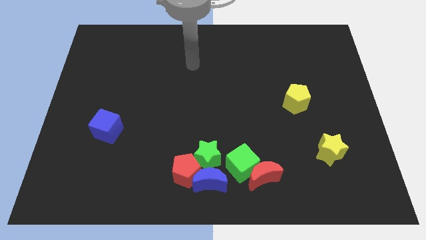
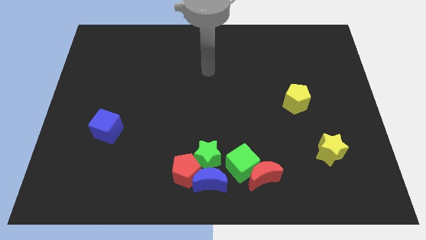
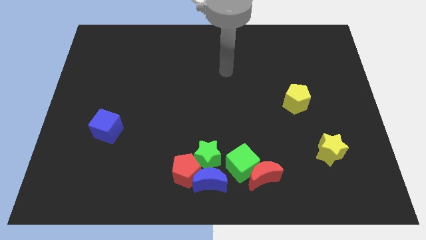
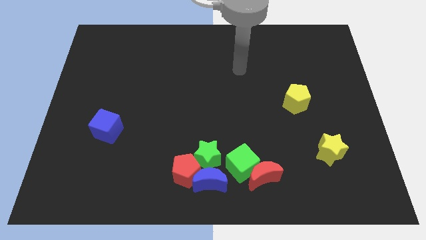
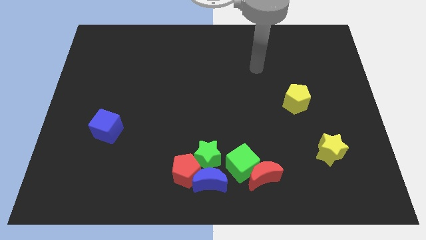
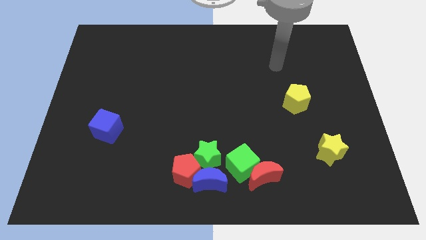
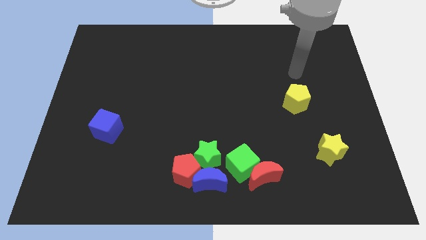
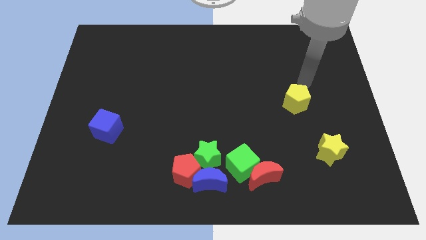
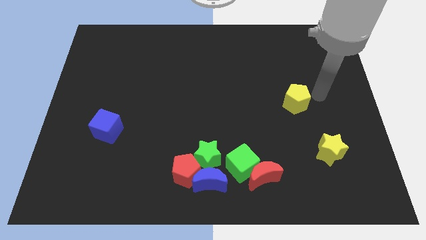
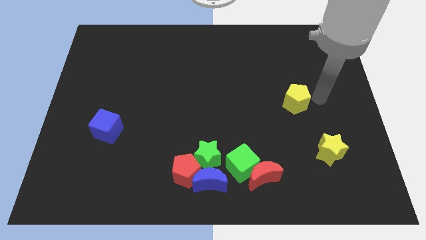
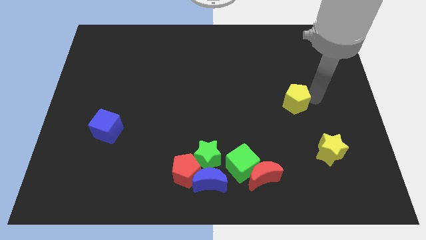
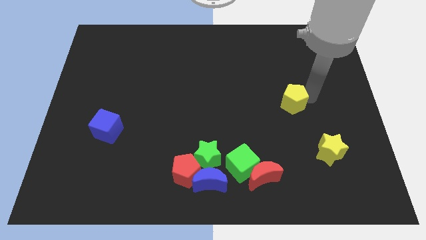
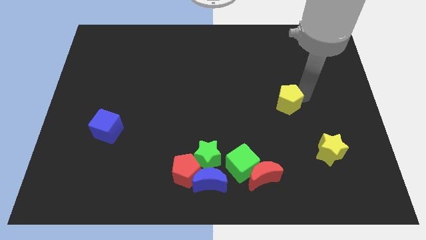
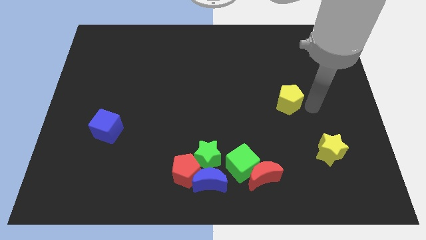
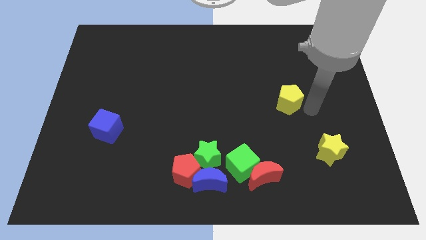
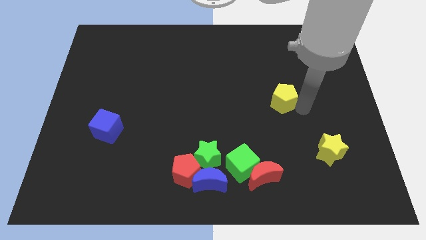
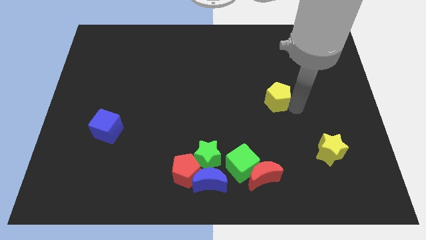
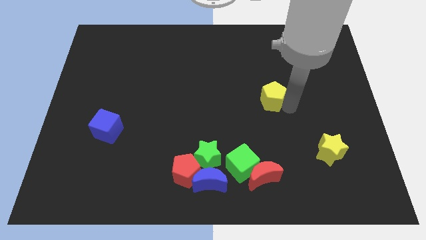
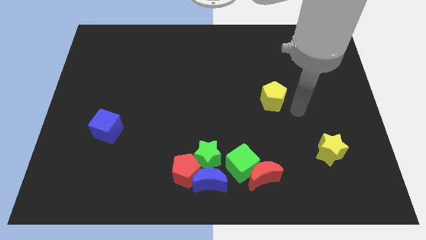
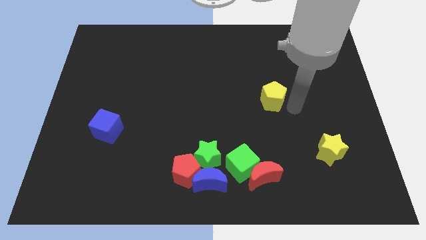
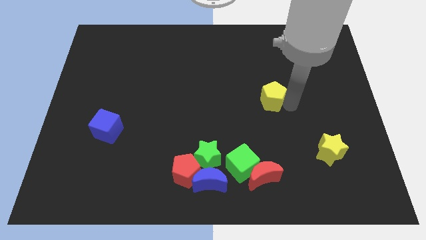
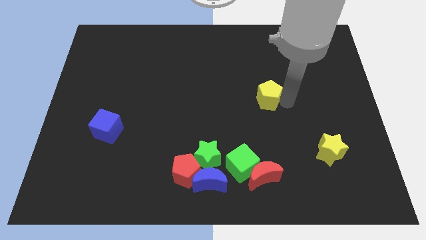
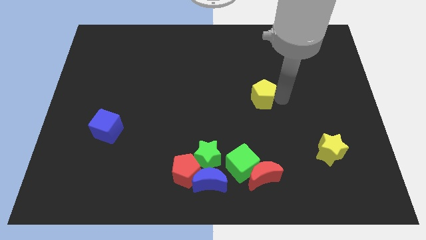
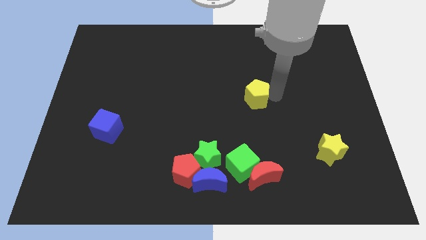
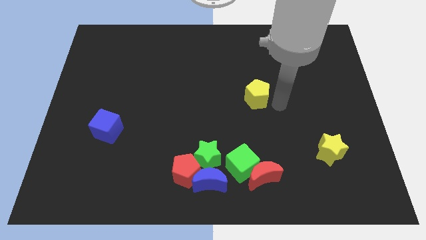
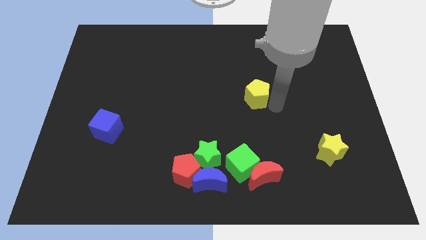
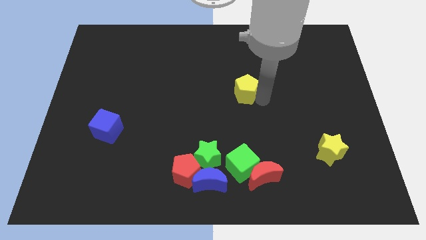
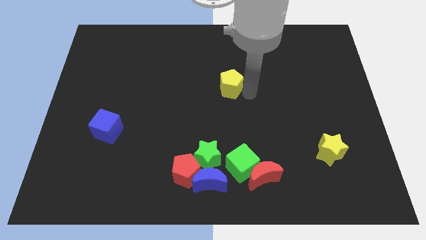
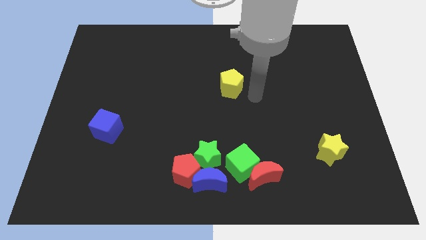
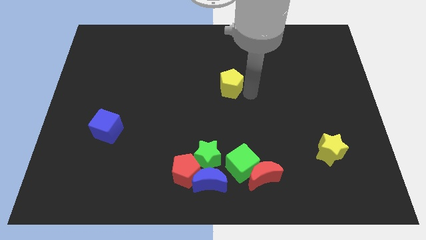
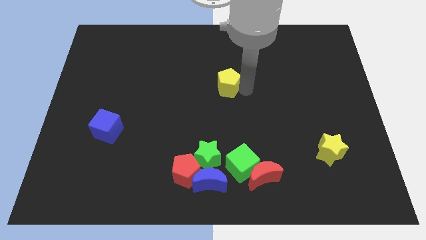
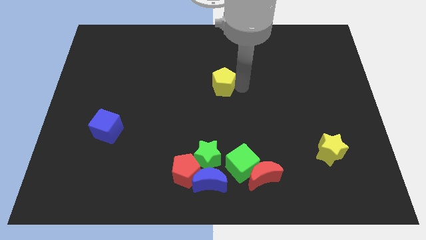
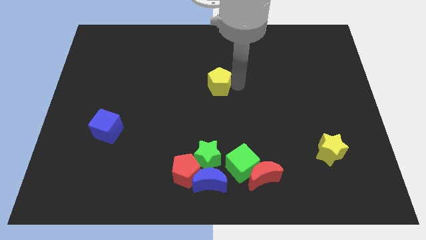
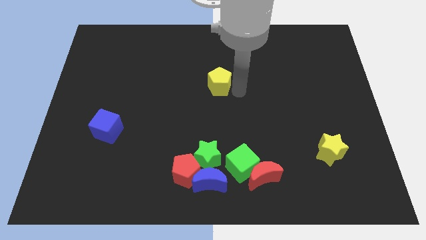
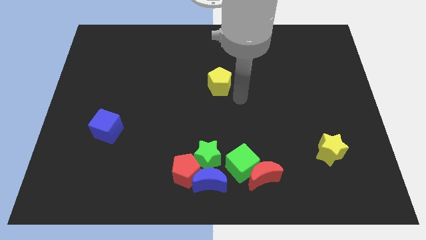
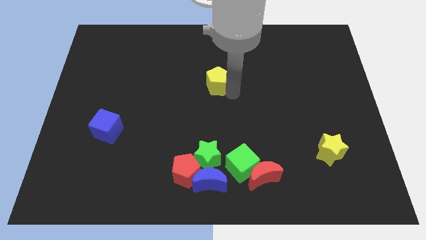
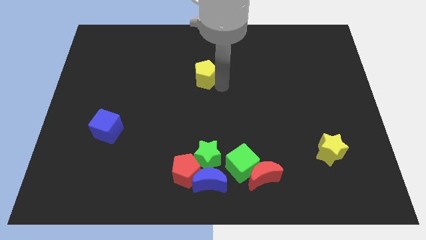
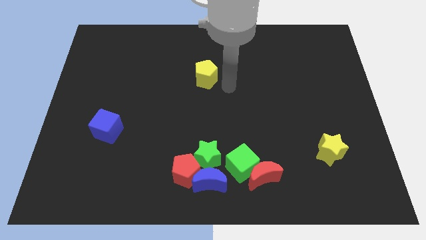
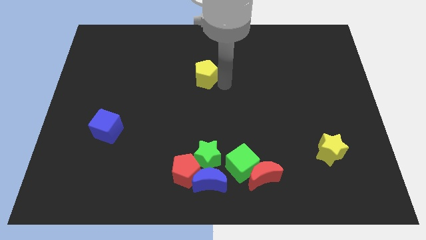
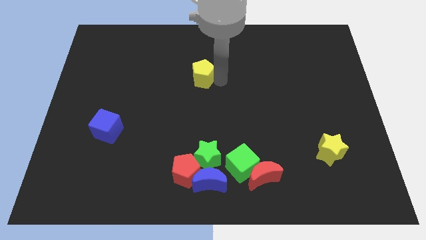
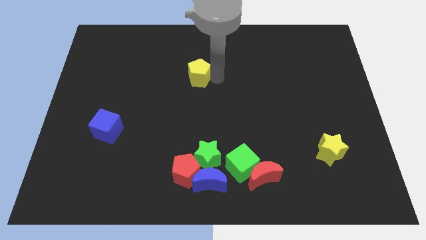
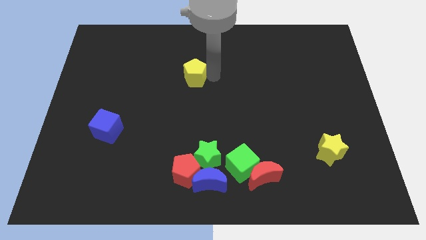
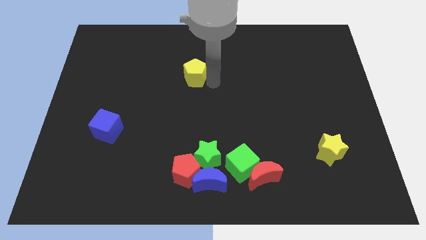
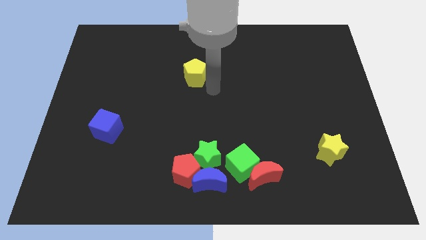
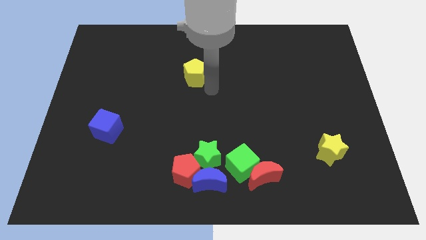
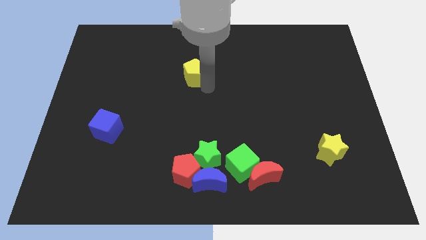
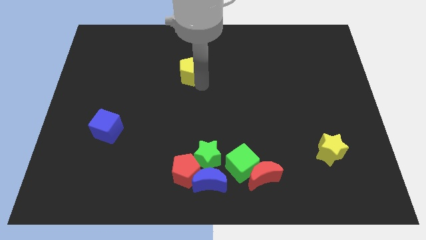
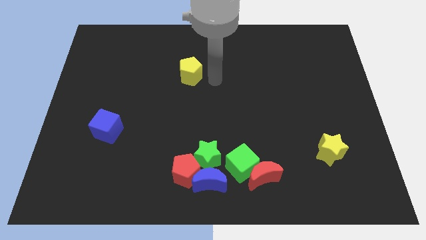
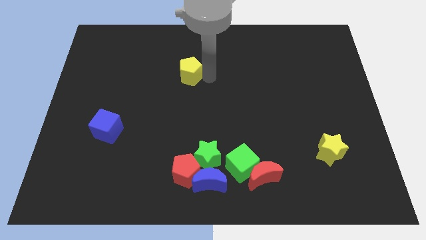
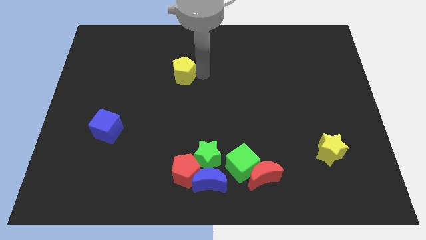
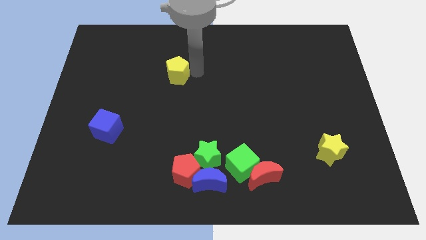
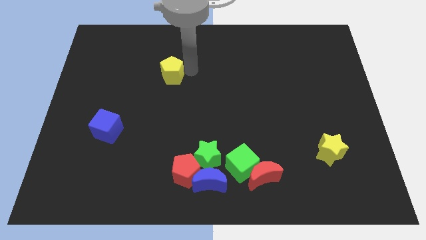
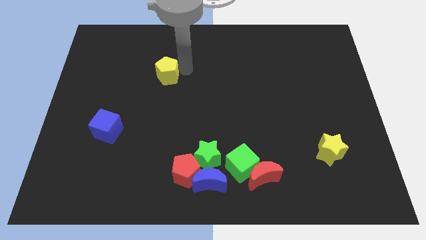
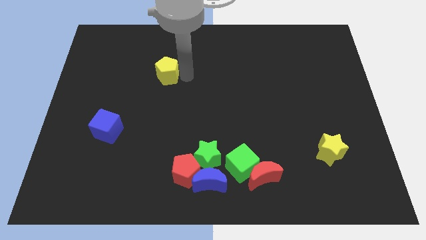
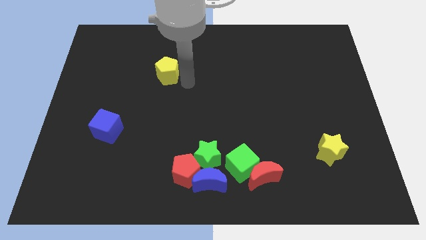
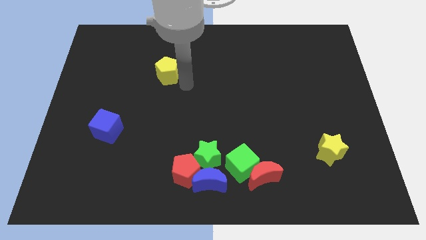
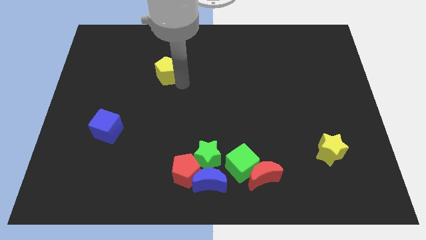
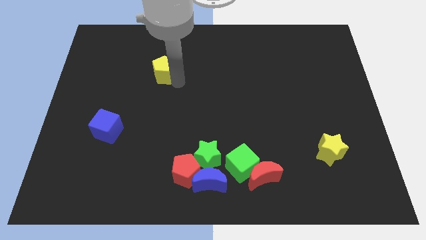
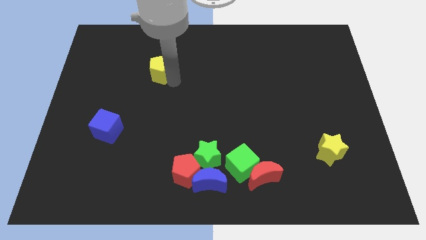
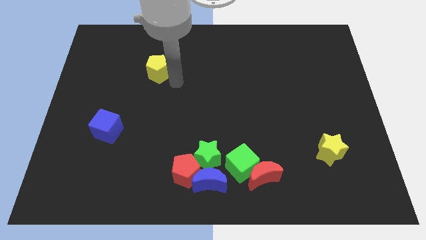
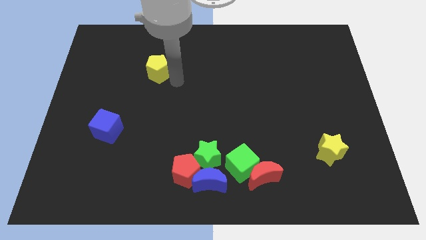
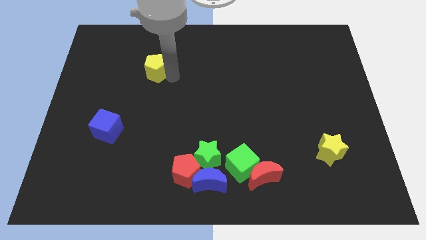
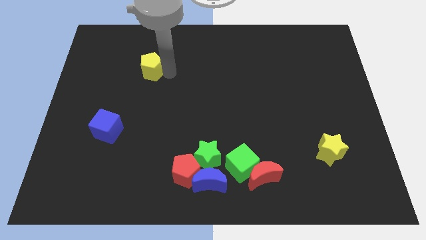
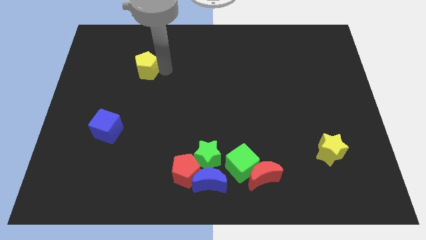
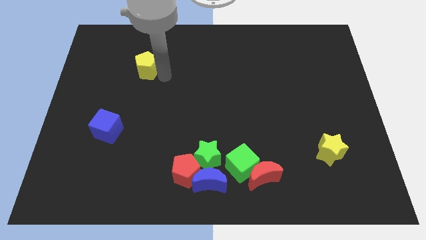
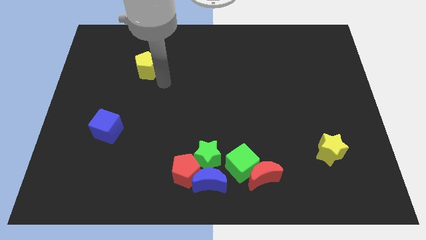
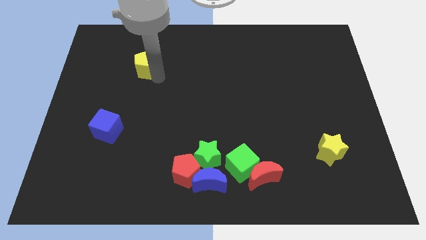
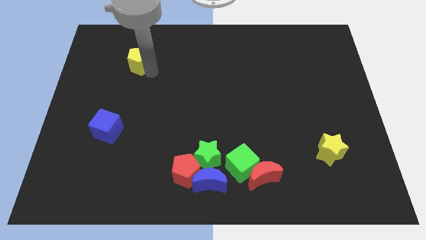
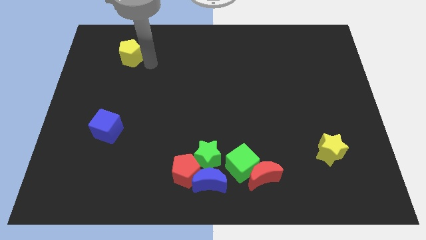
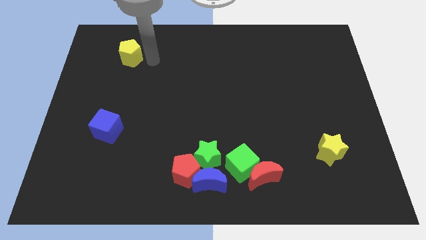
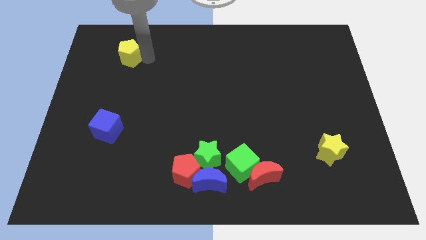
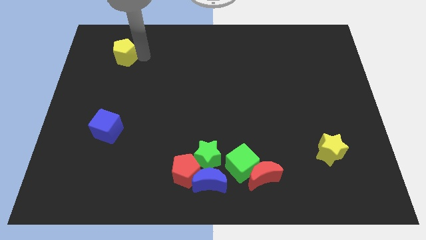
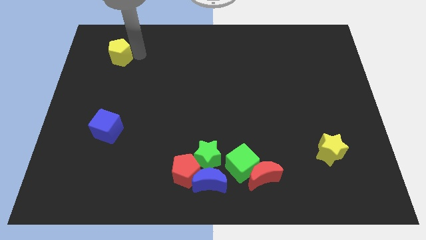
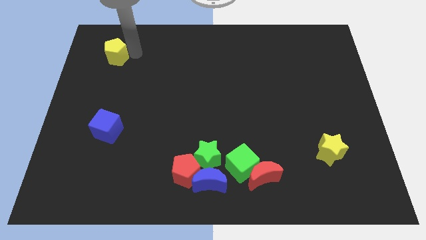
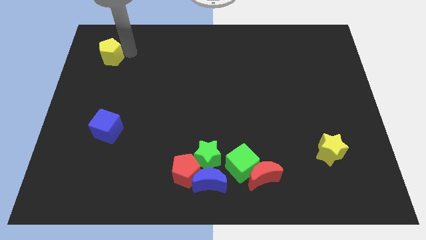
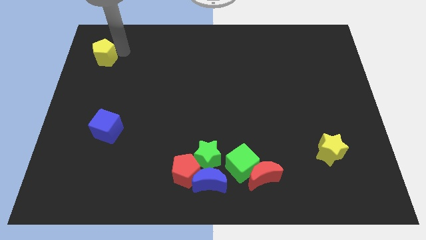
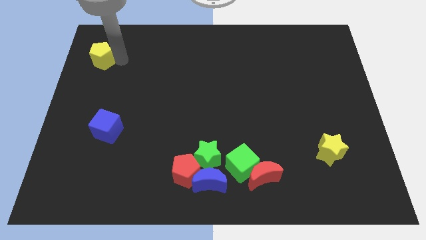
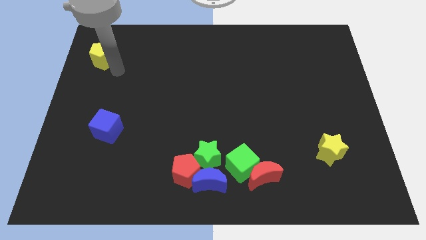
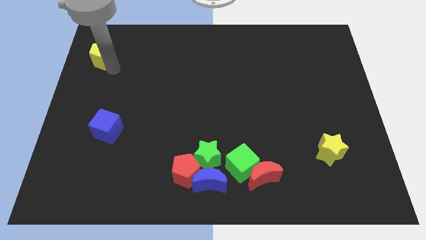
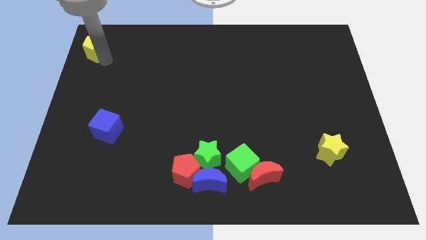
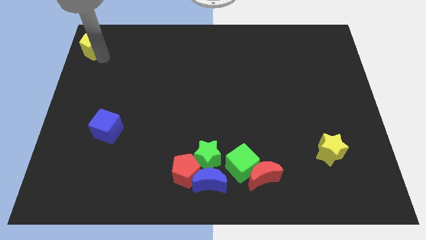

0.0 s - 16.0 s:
push the yellow pentagon to the top left corner
